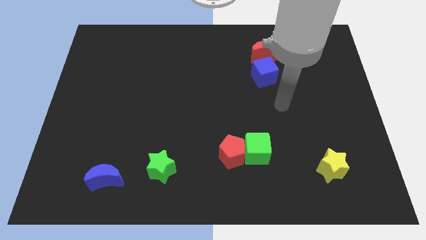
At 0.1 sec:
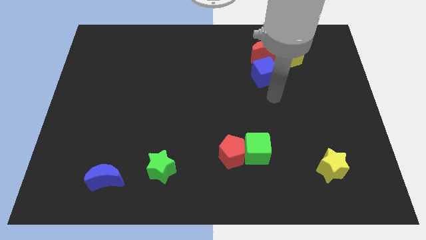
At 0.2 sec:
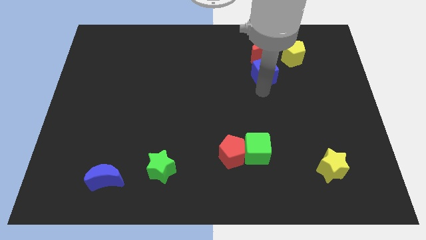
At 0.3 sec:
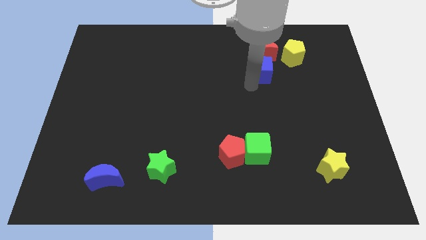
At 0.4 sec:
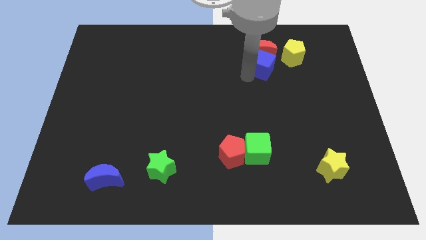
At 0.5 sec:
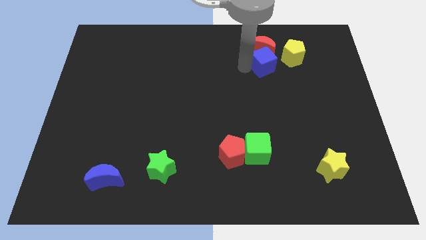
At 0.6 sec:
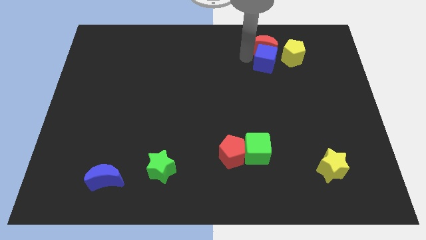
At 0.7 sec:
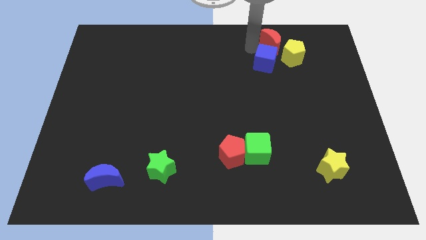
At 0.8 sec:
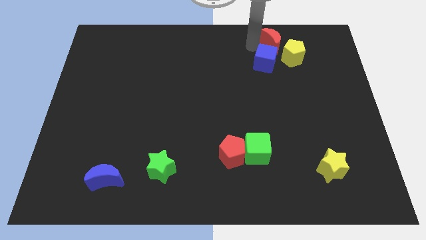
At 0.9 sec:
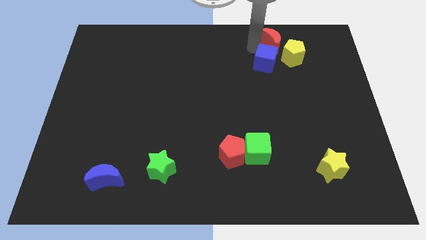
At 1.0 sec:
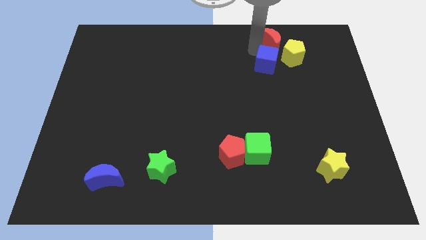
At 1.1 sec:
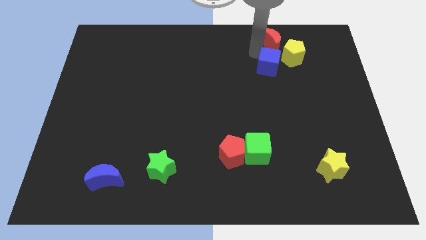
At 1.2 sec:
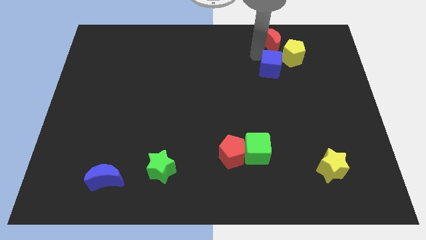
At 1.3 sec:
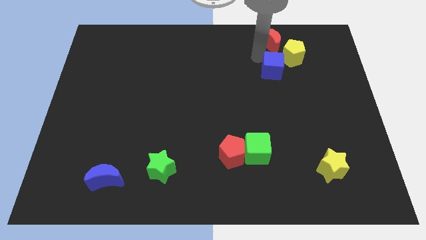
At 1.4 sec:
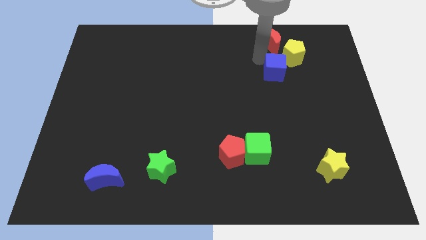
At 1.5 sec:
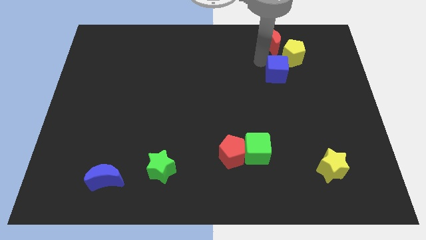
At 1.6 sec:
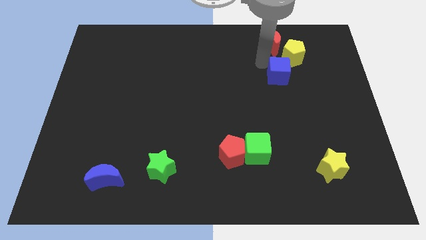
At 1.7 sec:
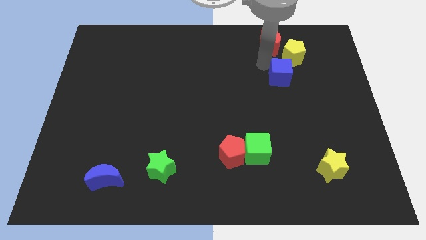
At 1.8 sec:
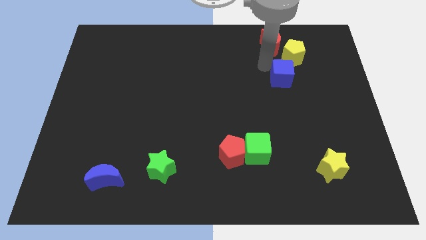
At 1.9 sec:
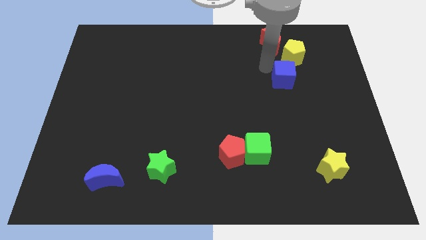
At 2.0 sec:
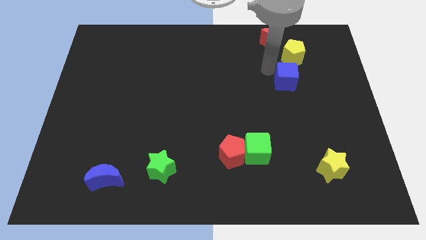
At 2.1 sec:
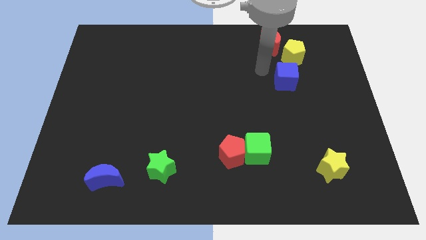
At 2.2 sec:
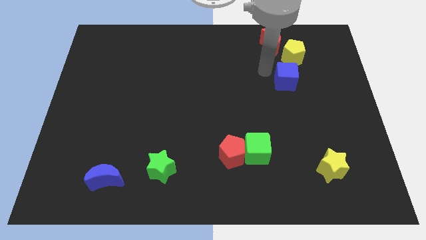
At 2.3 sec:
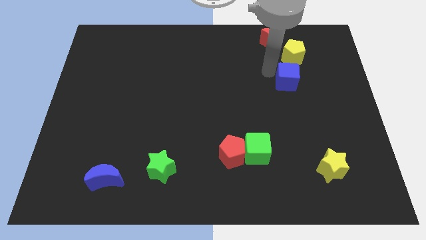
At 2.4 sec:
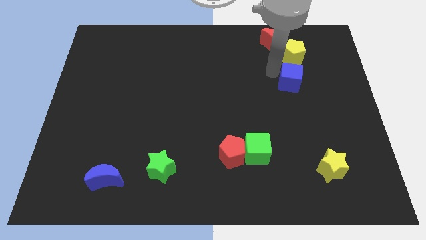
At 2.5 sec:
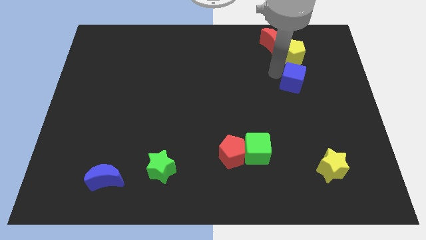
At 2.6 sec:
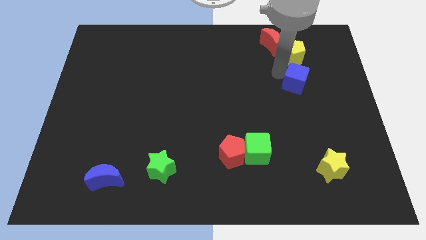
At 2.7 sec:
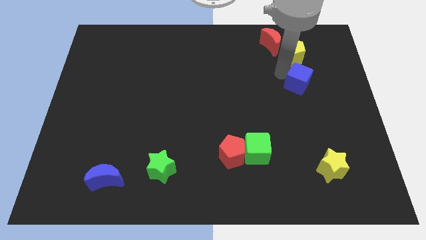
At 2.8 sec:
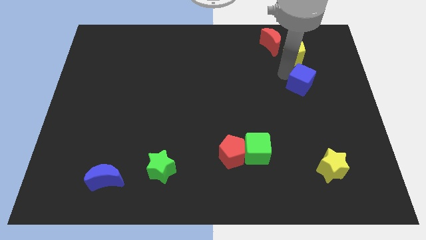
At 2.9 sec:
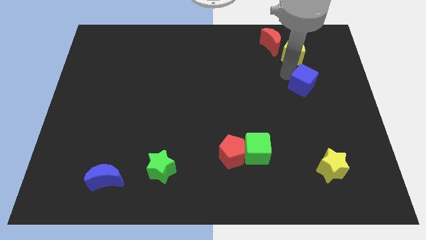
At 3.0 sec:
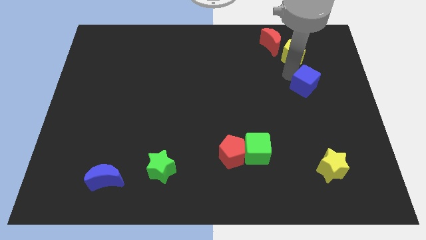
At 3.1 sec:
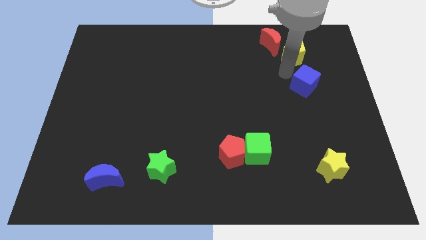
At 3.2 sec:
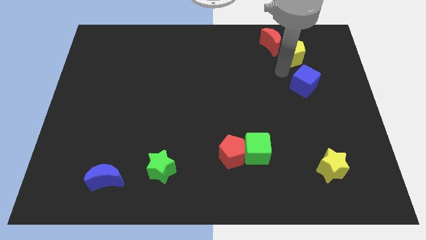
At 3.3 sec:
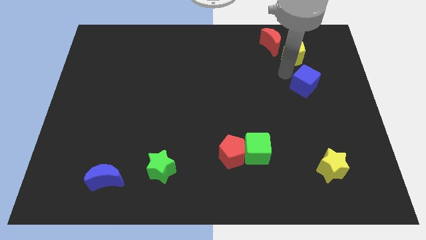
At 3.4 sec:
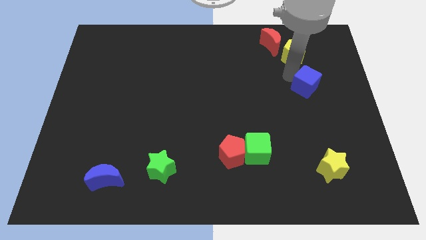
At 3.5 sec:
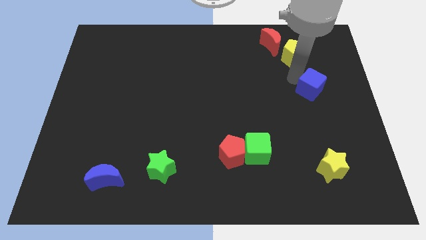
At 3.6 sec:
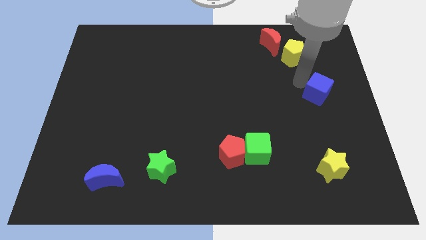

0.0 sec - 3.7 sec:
slide the blue cube to the center right

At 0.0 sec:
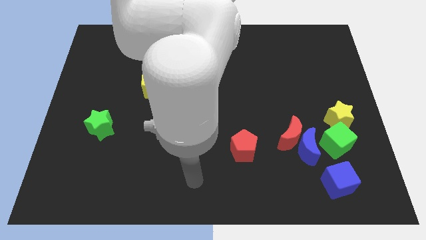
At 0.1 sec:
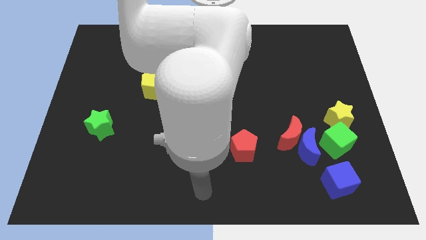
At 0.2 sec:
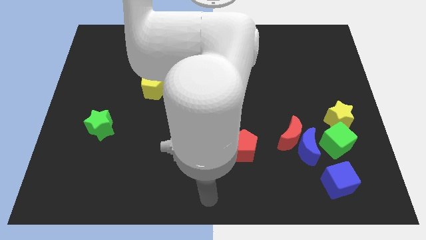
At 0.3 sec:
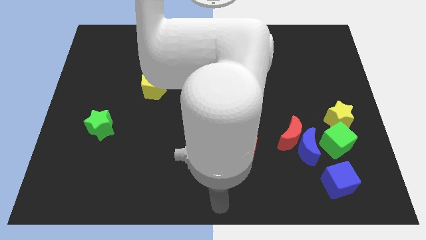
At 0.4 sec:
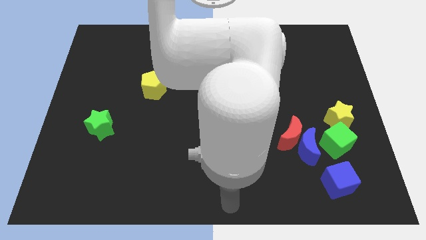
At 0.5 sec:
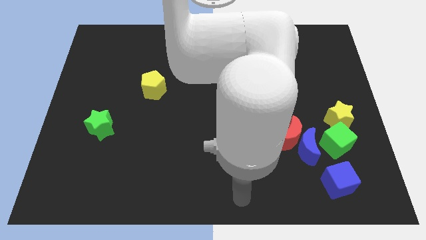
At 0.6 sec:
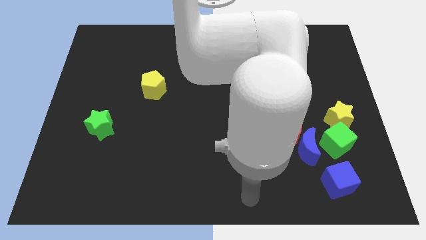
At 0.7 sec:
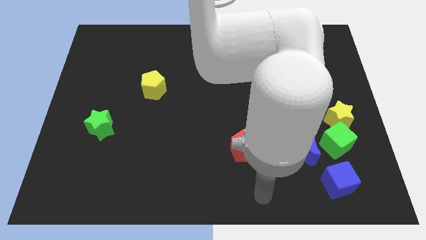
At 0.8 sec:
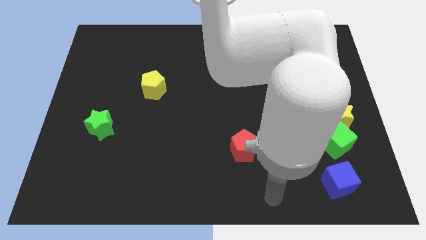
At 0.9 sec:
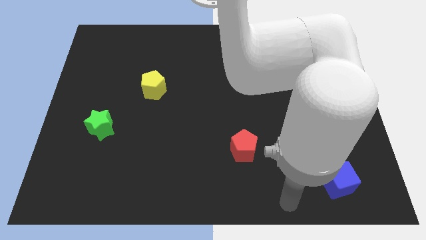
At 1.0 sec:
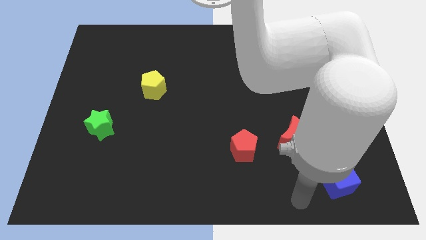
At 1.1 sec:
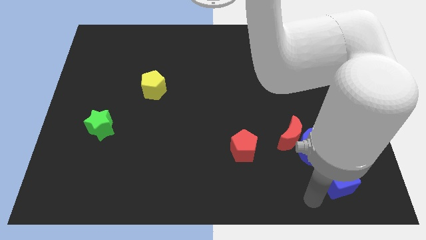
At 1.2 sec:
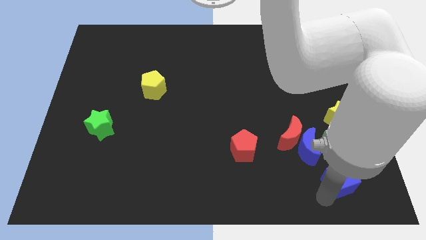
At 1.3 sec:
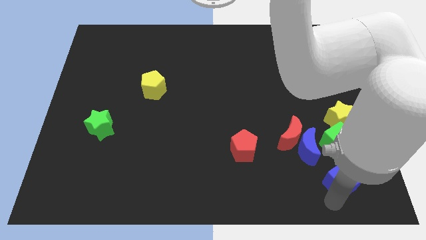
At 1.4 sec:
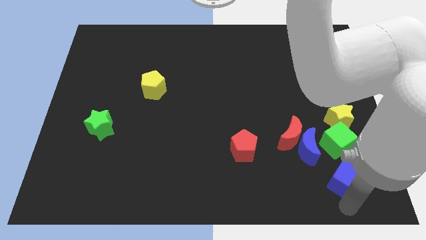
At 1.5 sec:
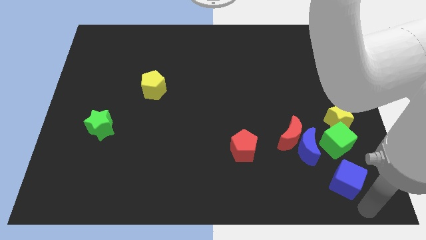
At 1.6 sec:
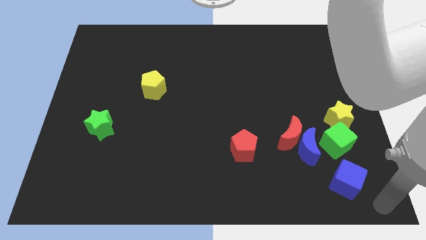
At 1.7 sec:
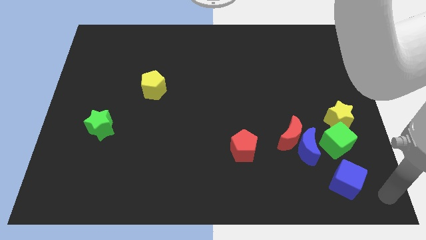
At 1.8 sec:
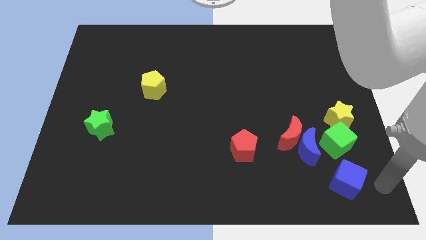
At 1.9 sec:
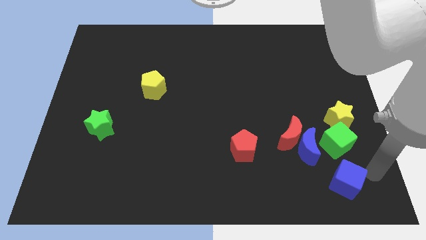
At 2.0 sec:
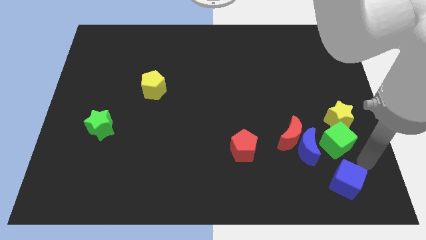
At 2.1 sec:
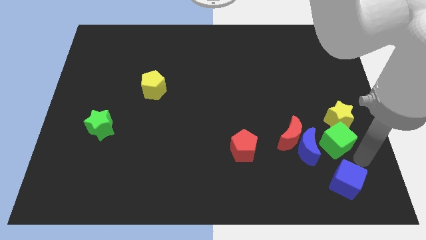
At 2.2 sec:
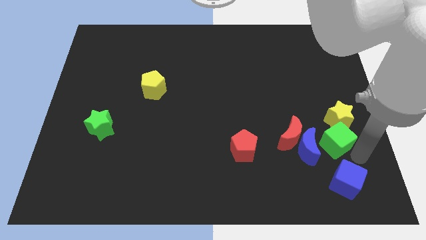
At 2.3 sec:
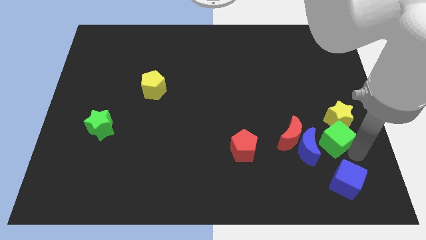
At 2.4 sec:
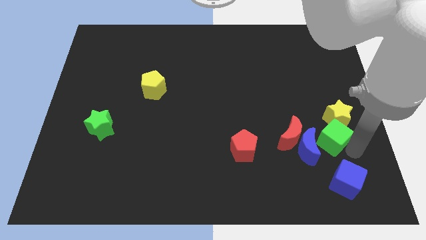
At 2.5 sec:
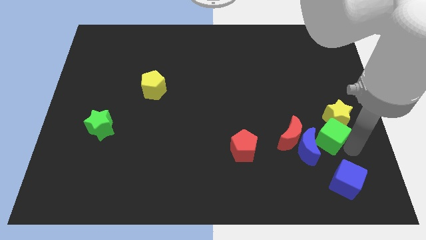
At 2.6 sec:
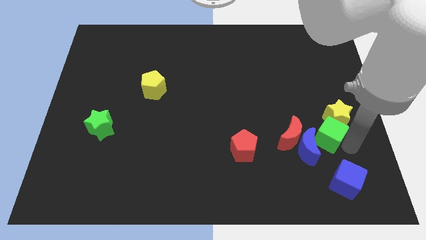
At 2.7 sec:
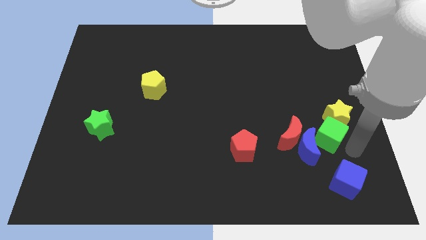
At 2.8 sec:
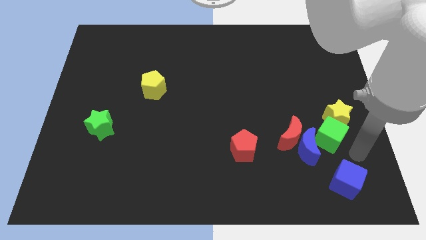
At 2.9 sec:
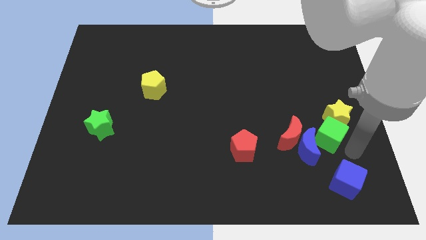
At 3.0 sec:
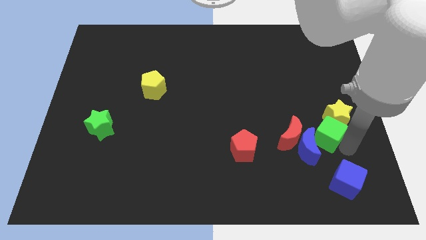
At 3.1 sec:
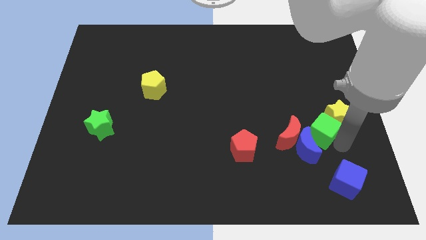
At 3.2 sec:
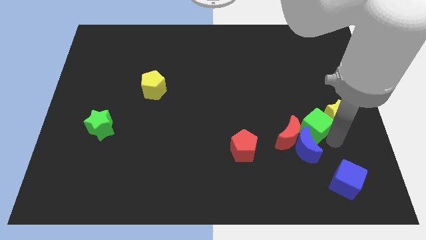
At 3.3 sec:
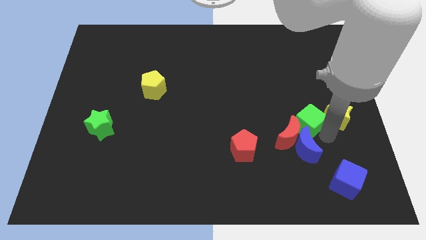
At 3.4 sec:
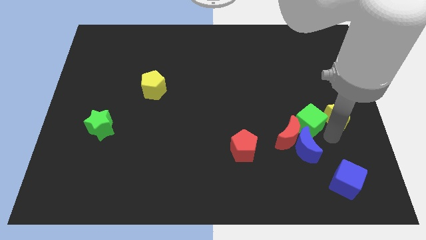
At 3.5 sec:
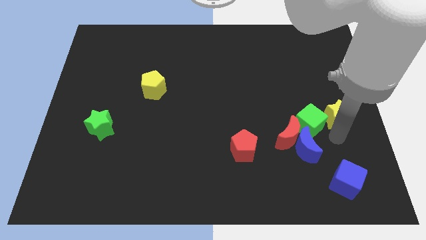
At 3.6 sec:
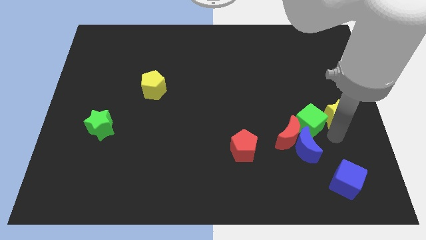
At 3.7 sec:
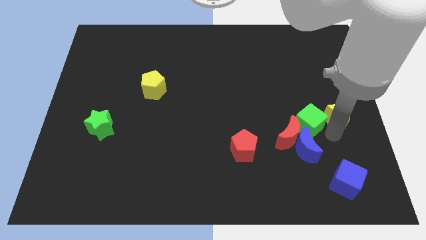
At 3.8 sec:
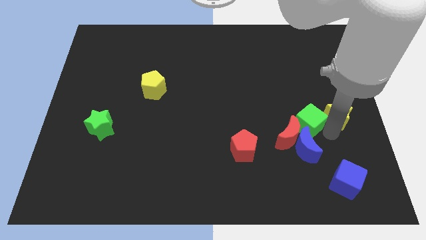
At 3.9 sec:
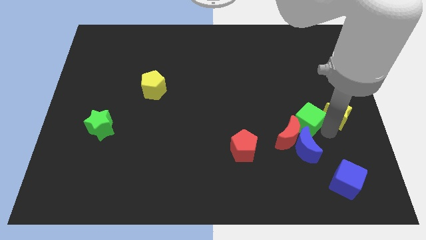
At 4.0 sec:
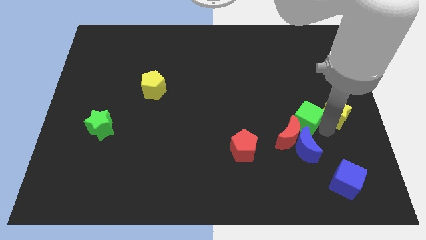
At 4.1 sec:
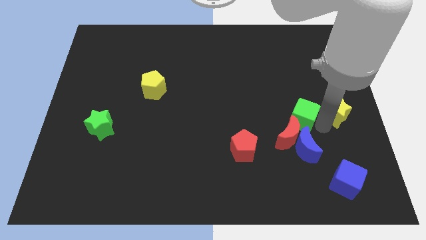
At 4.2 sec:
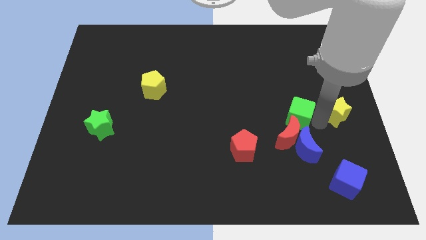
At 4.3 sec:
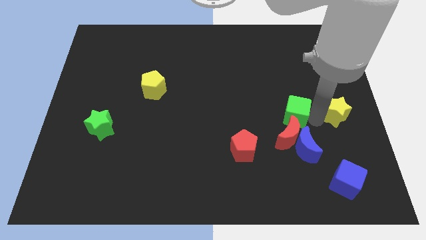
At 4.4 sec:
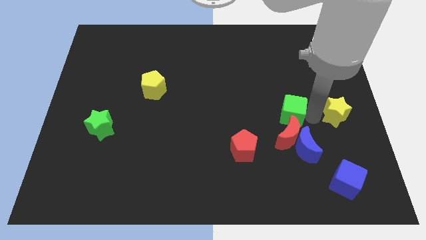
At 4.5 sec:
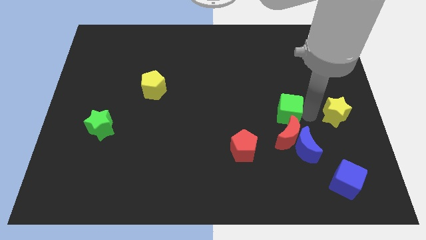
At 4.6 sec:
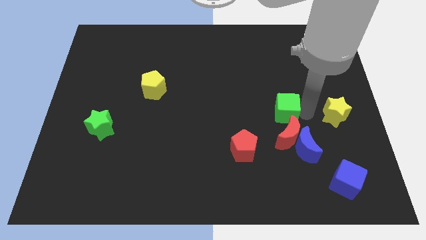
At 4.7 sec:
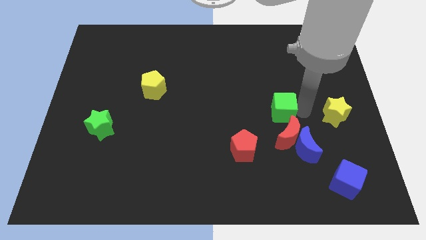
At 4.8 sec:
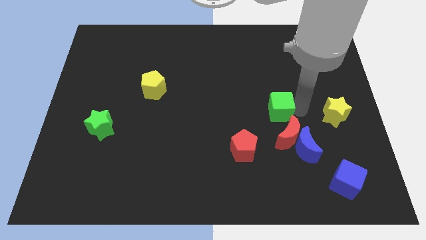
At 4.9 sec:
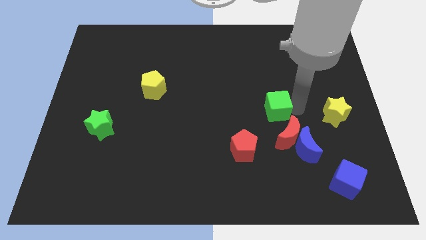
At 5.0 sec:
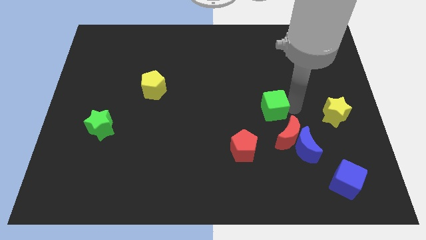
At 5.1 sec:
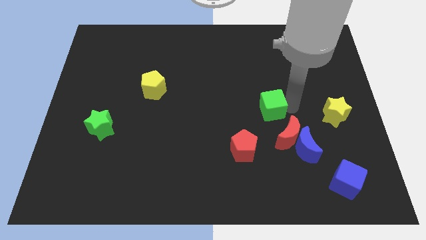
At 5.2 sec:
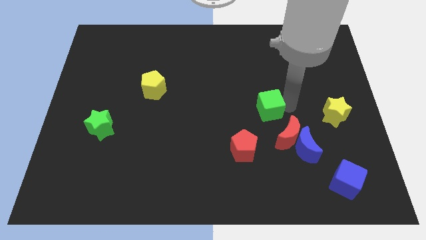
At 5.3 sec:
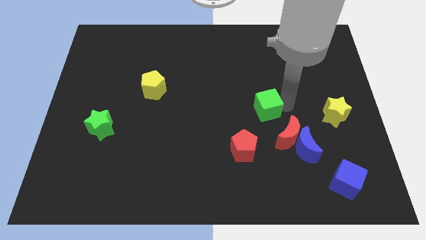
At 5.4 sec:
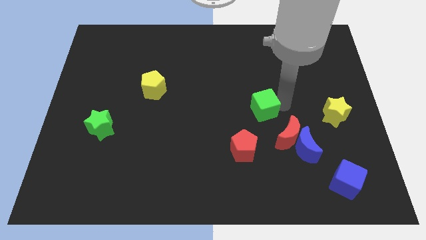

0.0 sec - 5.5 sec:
slide the green cube to the middle
